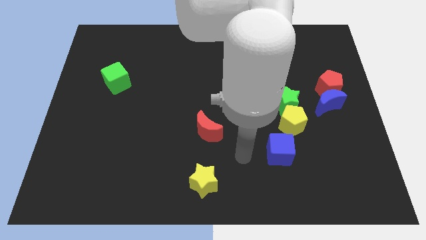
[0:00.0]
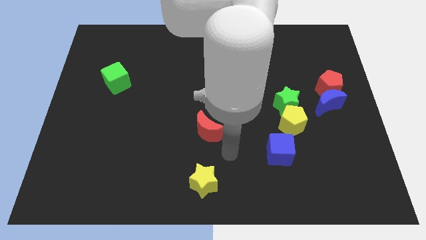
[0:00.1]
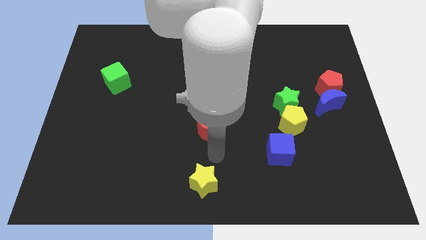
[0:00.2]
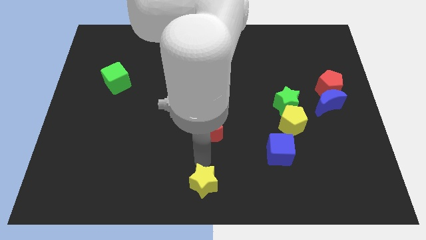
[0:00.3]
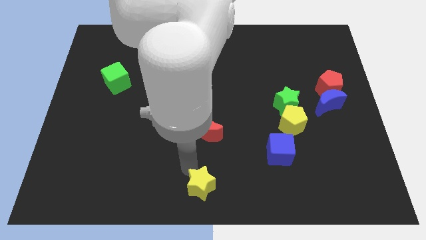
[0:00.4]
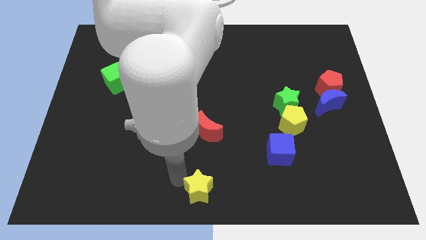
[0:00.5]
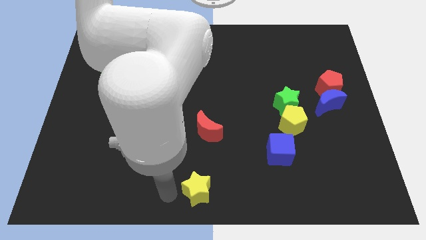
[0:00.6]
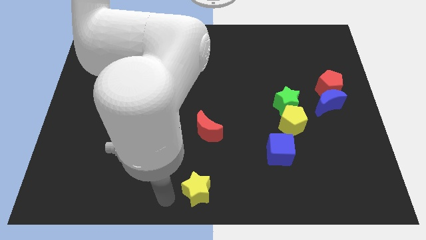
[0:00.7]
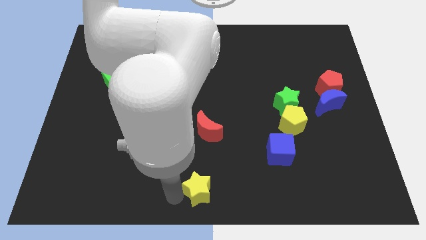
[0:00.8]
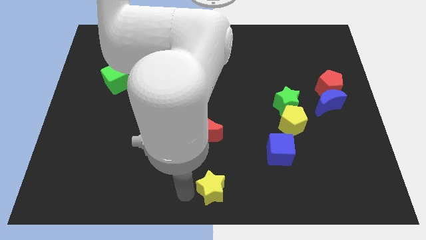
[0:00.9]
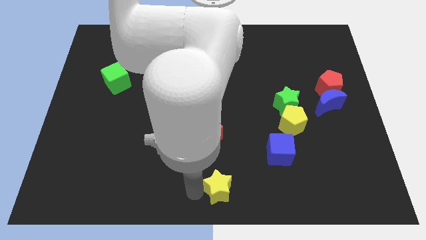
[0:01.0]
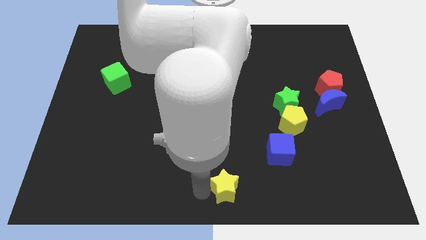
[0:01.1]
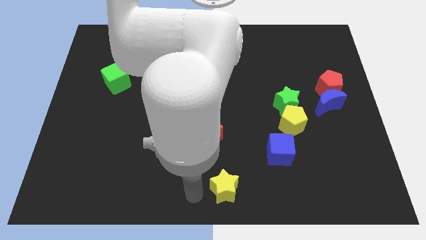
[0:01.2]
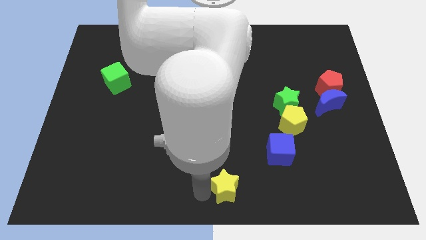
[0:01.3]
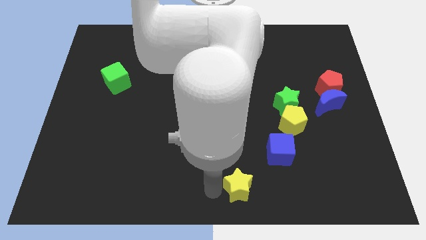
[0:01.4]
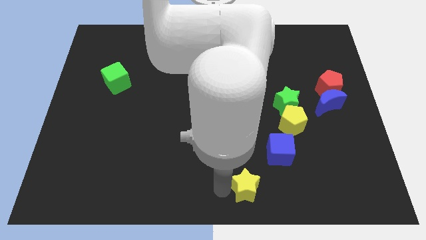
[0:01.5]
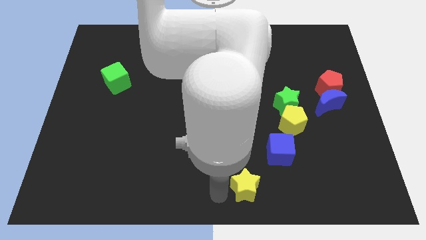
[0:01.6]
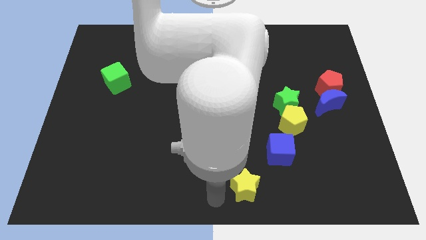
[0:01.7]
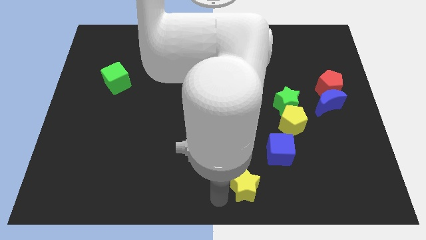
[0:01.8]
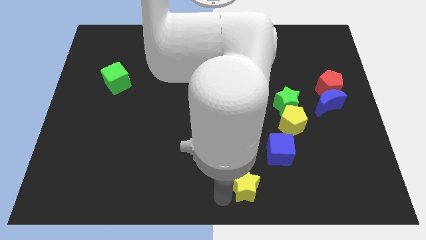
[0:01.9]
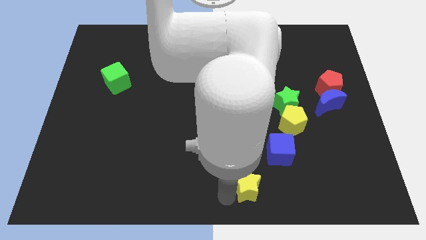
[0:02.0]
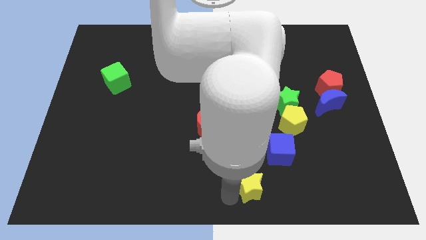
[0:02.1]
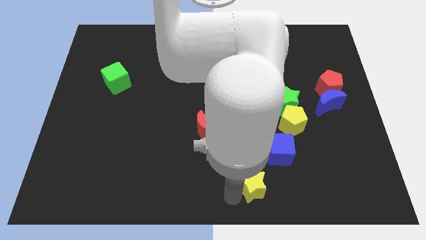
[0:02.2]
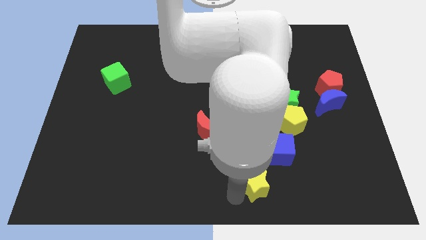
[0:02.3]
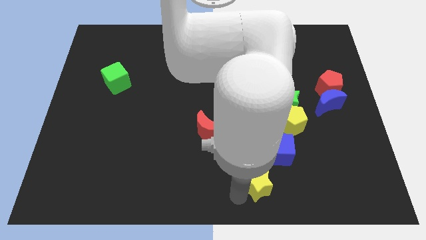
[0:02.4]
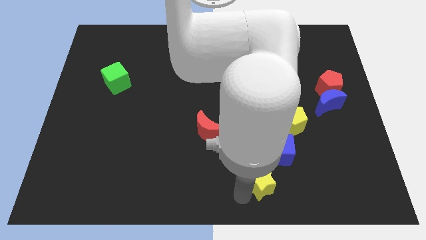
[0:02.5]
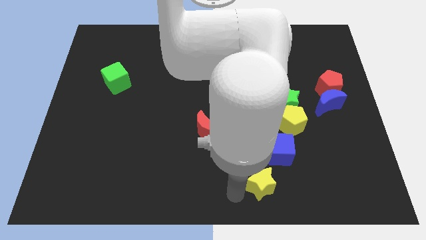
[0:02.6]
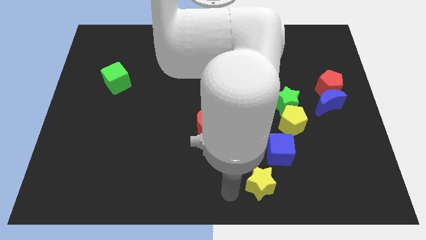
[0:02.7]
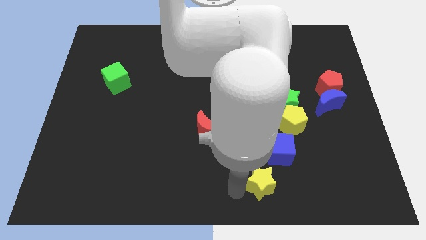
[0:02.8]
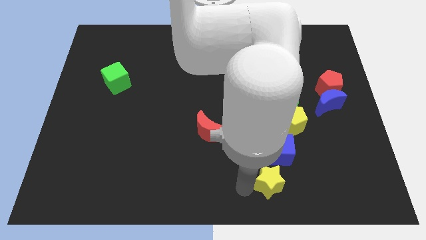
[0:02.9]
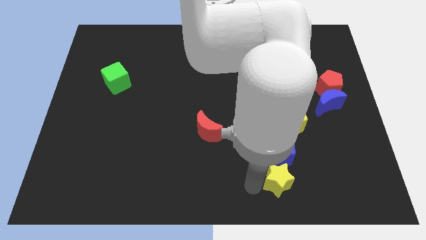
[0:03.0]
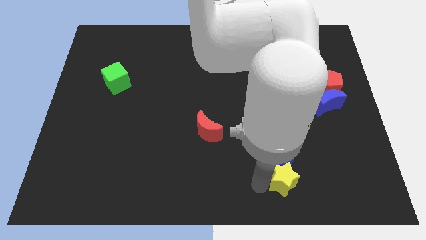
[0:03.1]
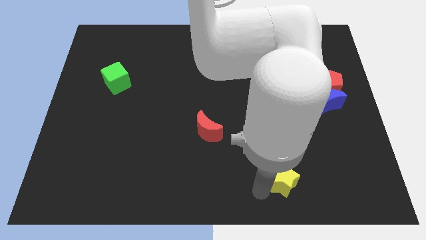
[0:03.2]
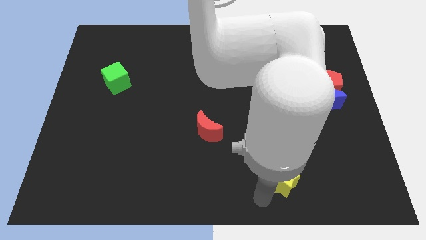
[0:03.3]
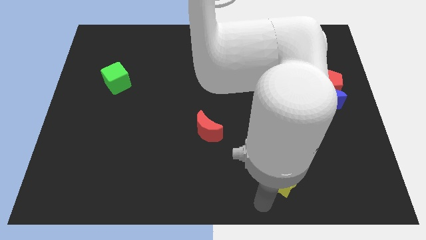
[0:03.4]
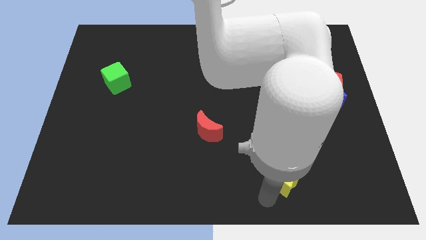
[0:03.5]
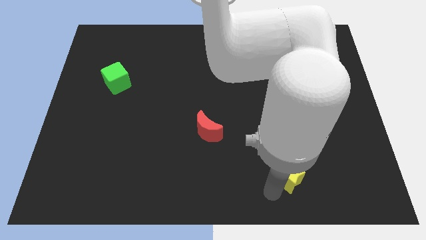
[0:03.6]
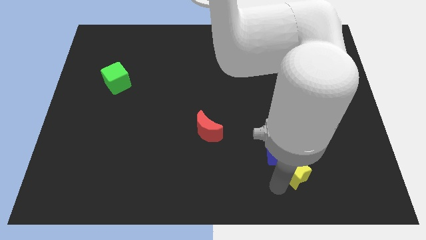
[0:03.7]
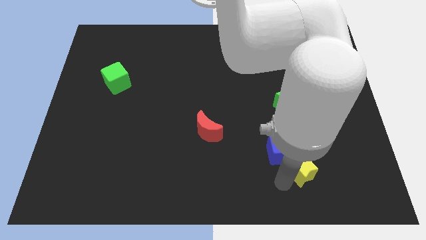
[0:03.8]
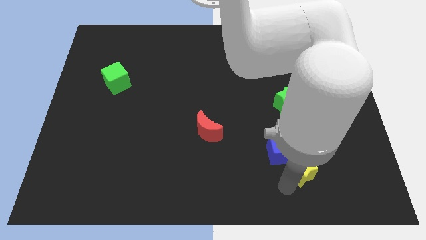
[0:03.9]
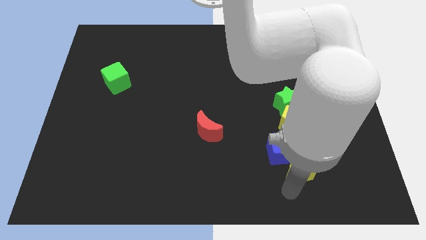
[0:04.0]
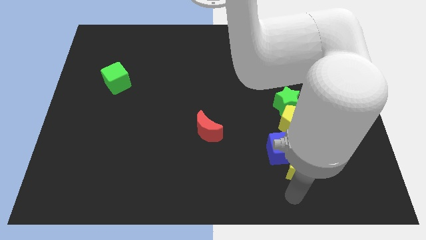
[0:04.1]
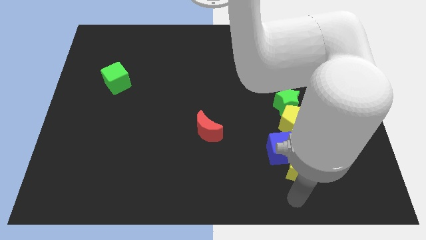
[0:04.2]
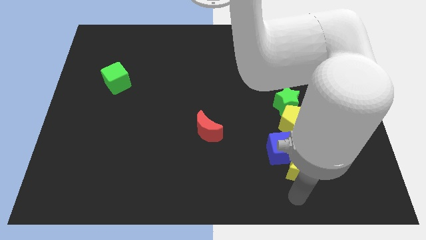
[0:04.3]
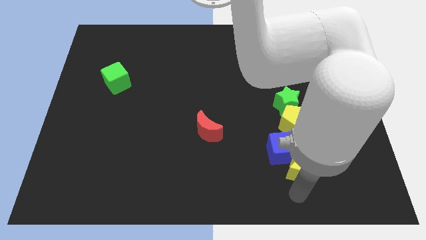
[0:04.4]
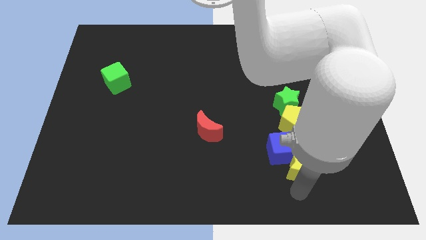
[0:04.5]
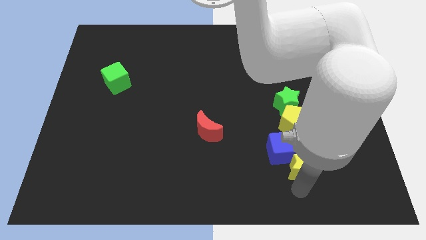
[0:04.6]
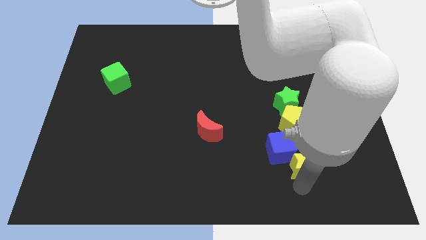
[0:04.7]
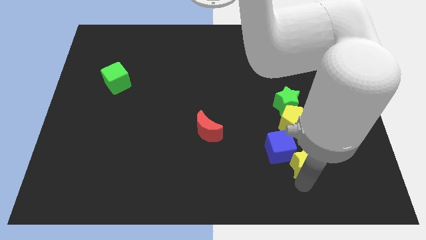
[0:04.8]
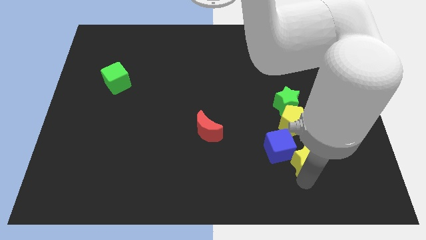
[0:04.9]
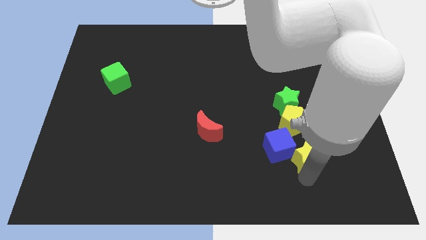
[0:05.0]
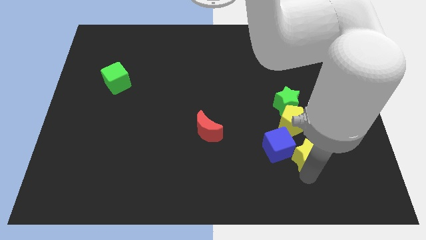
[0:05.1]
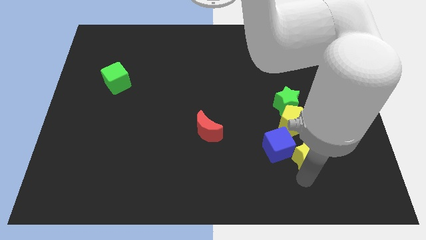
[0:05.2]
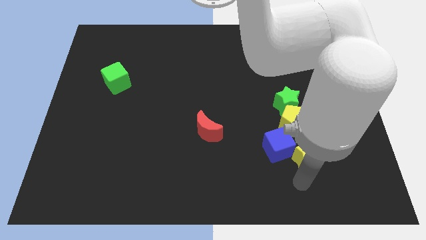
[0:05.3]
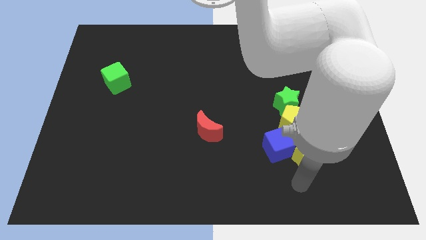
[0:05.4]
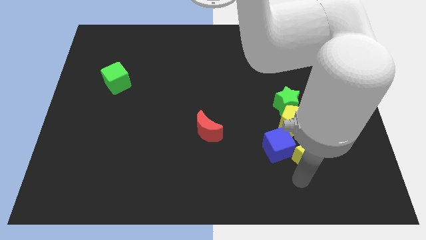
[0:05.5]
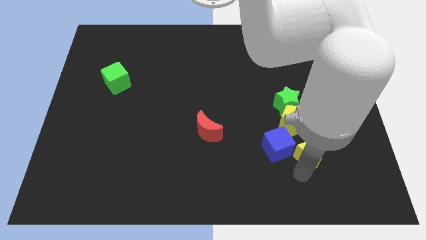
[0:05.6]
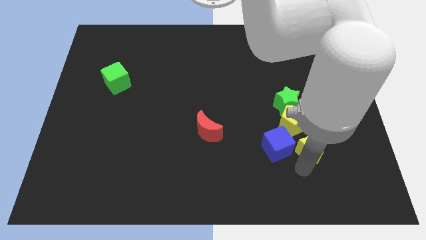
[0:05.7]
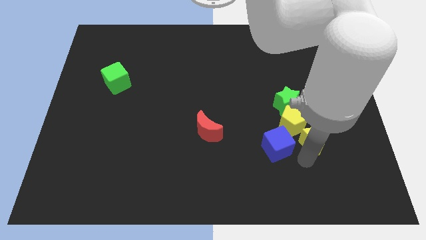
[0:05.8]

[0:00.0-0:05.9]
push the yellow star to the bottom right side of the green star

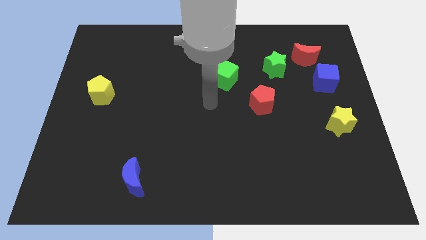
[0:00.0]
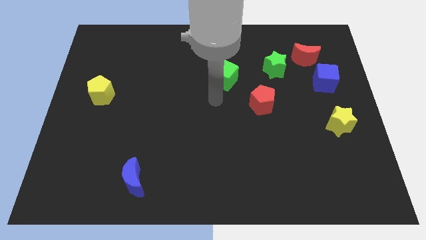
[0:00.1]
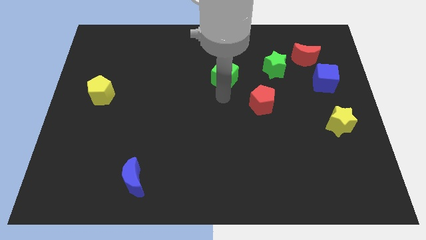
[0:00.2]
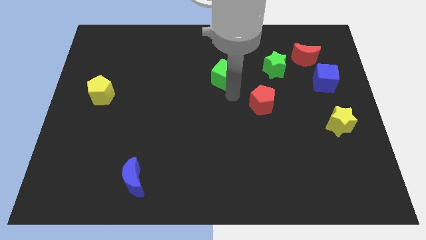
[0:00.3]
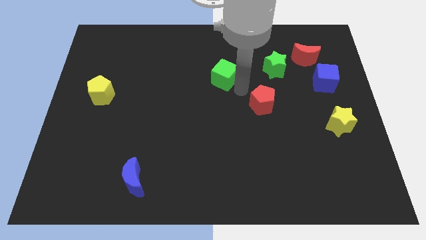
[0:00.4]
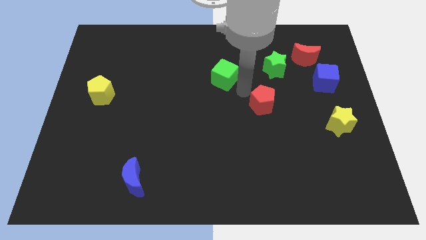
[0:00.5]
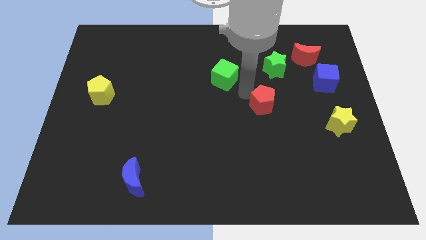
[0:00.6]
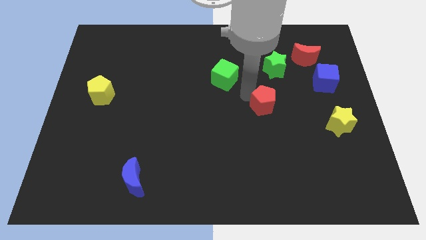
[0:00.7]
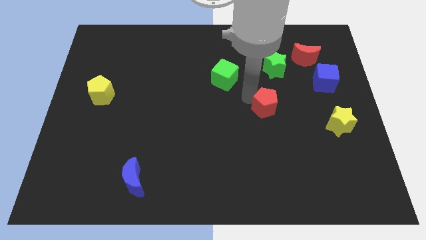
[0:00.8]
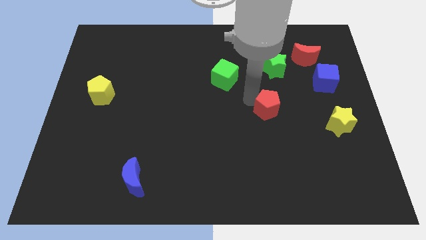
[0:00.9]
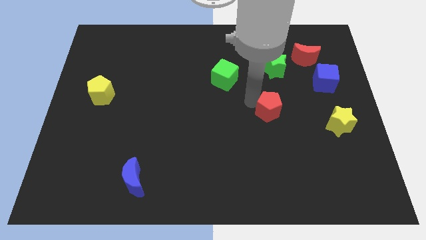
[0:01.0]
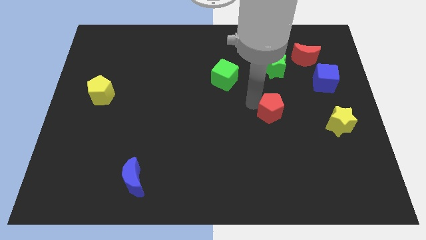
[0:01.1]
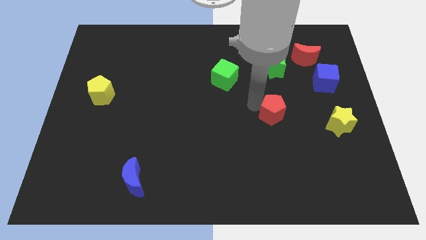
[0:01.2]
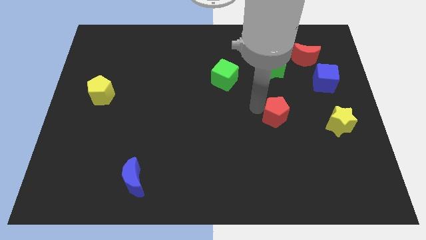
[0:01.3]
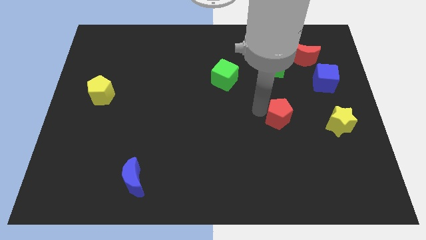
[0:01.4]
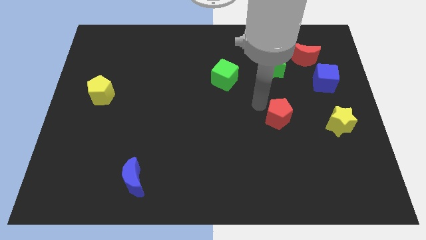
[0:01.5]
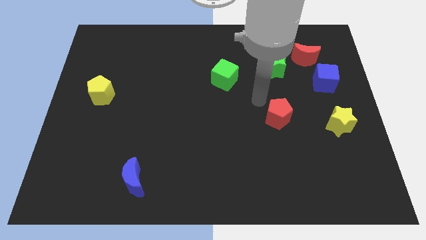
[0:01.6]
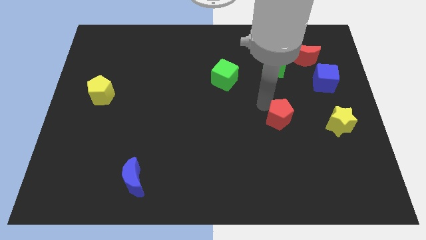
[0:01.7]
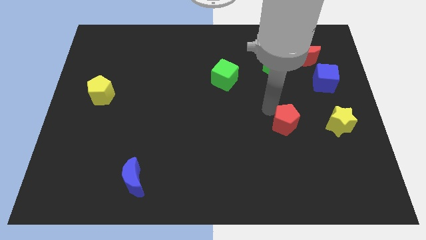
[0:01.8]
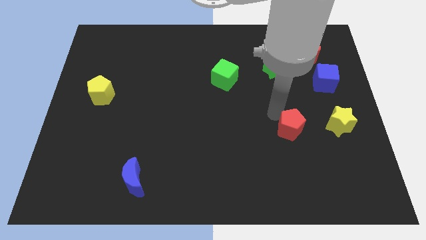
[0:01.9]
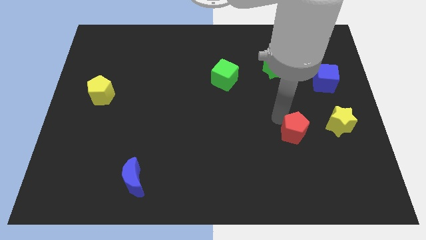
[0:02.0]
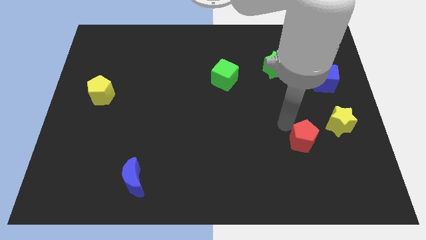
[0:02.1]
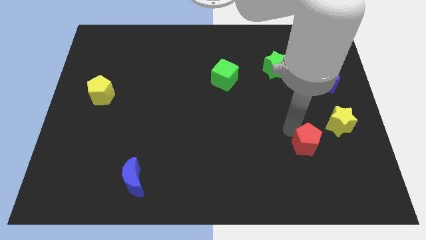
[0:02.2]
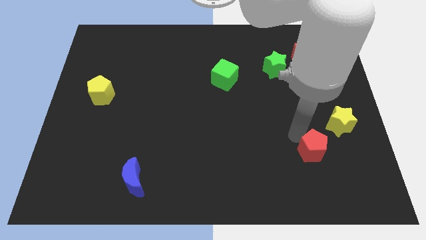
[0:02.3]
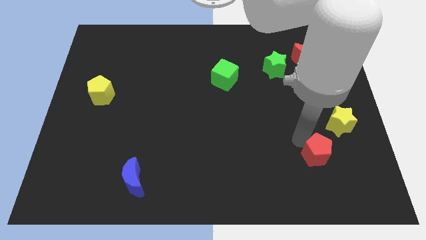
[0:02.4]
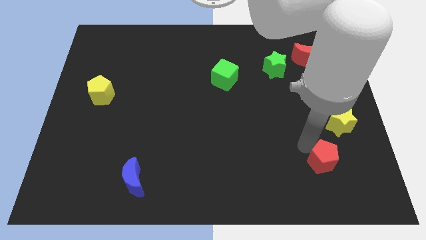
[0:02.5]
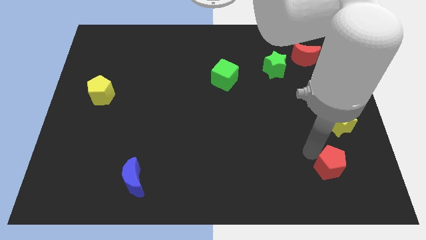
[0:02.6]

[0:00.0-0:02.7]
move the red pentagon to the bottom of the yellow star
